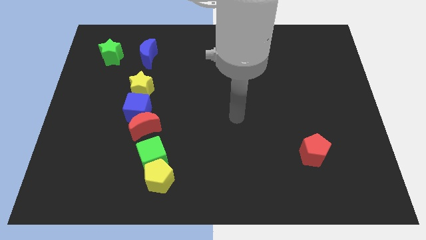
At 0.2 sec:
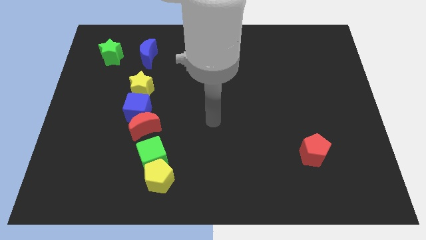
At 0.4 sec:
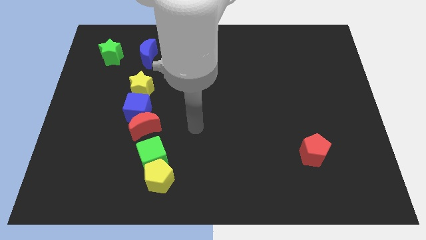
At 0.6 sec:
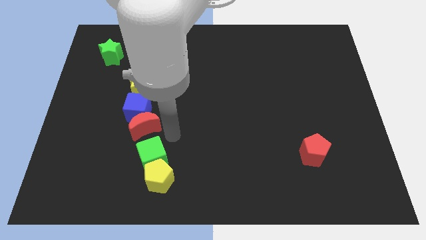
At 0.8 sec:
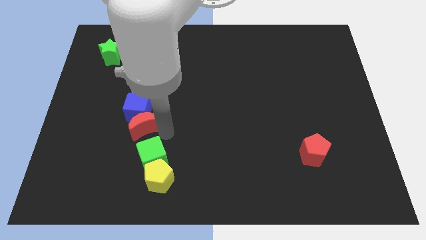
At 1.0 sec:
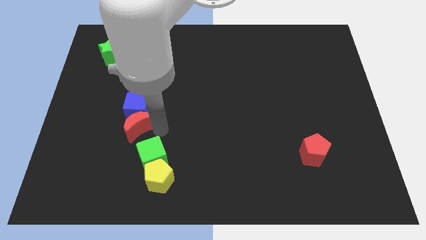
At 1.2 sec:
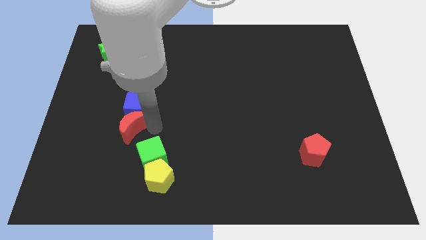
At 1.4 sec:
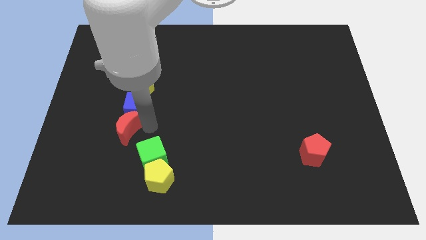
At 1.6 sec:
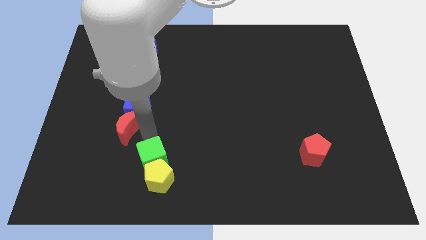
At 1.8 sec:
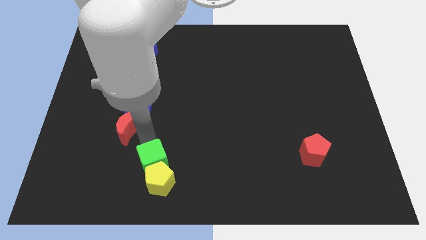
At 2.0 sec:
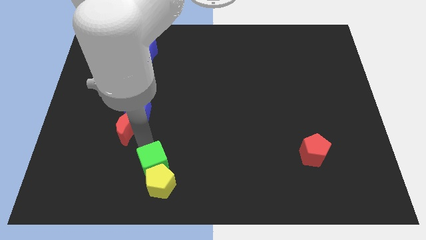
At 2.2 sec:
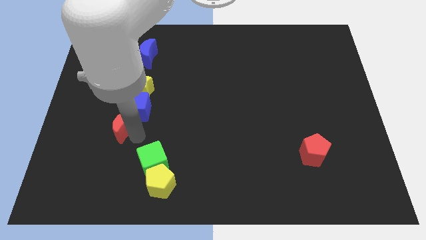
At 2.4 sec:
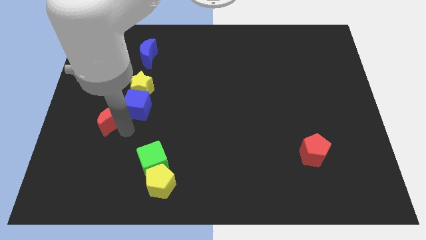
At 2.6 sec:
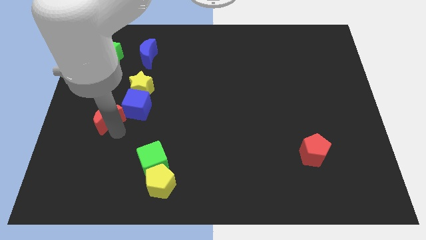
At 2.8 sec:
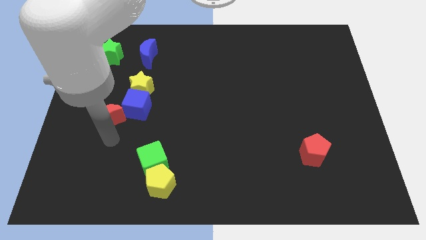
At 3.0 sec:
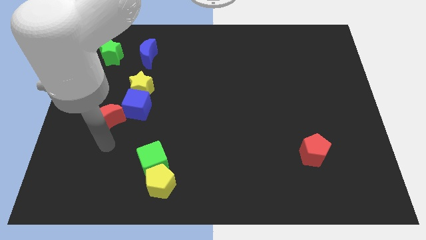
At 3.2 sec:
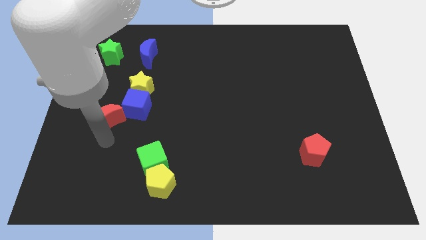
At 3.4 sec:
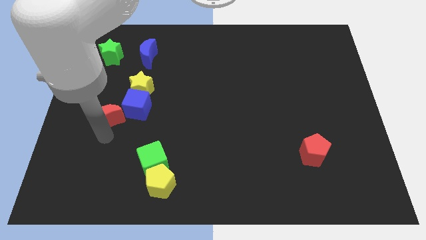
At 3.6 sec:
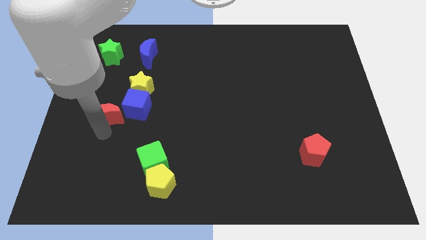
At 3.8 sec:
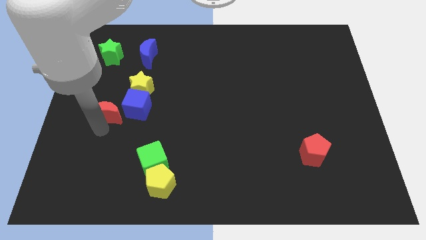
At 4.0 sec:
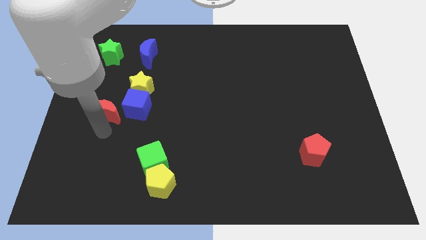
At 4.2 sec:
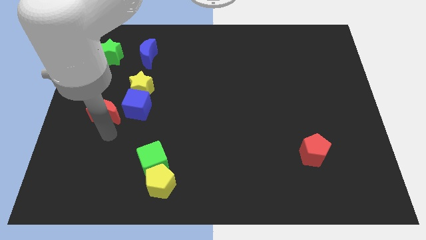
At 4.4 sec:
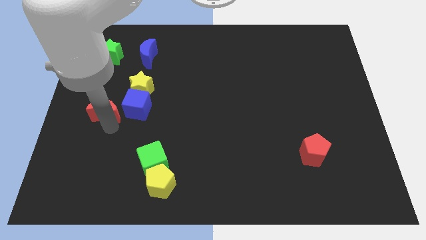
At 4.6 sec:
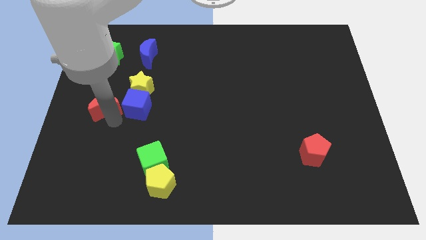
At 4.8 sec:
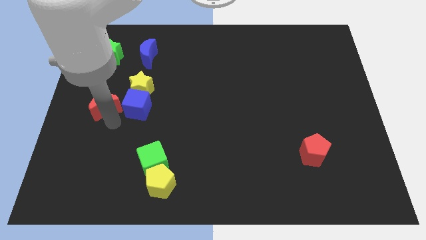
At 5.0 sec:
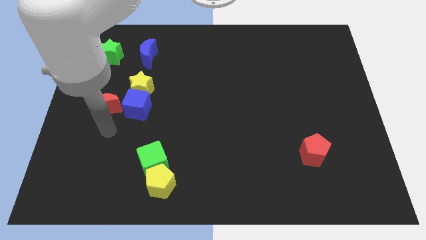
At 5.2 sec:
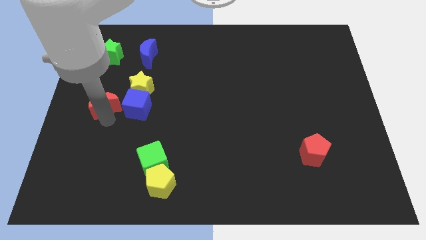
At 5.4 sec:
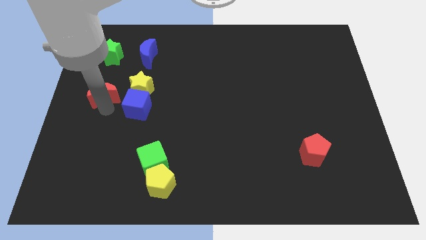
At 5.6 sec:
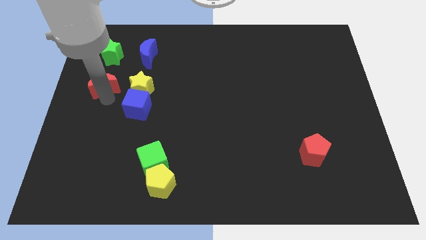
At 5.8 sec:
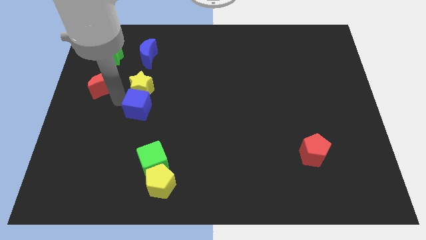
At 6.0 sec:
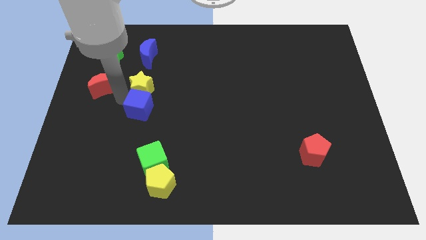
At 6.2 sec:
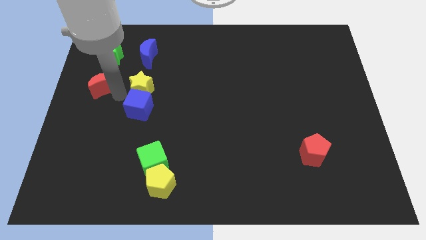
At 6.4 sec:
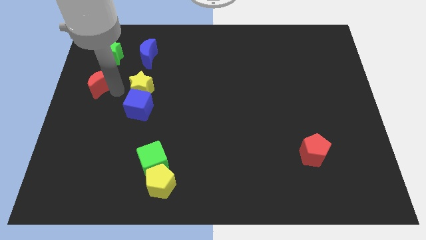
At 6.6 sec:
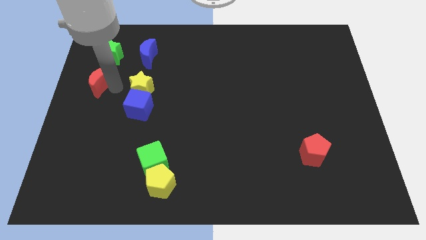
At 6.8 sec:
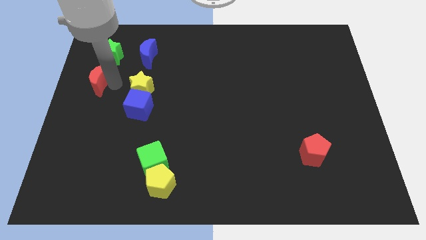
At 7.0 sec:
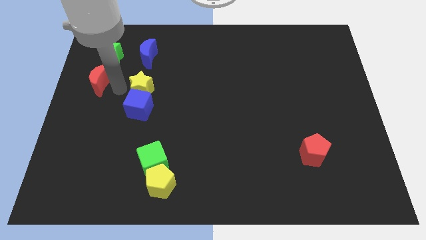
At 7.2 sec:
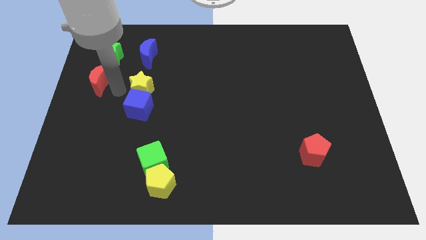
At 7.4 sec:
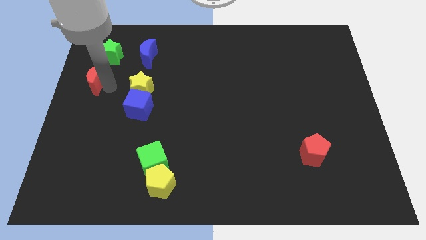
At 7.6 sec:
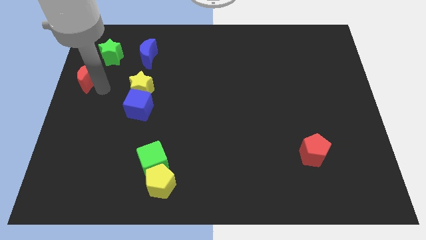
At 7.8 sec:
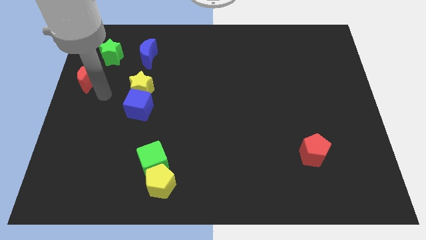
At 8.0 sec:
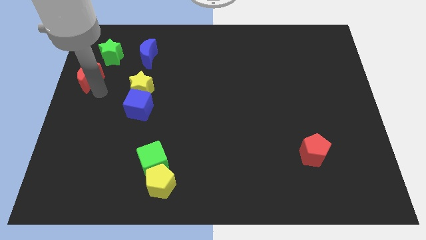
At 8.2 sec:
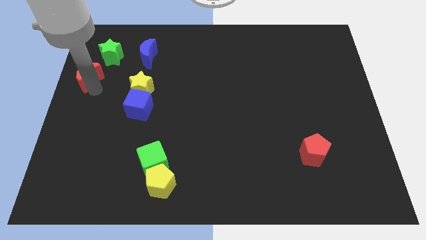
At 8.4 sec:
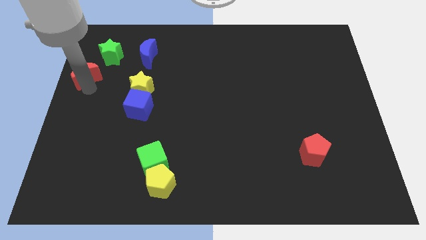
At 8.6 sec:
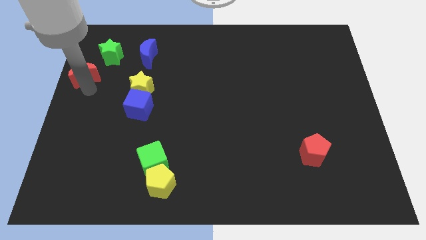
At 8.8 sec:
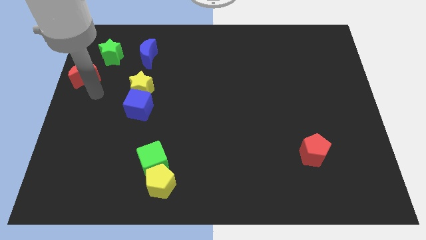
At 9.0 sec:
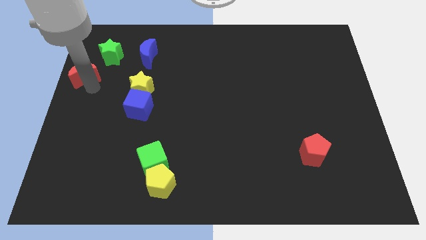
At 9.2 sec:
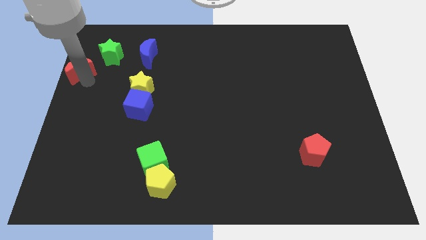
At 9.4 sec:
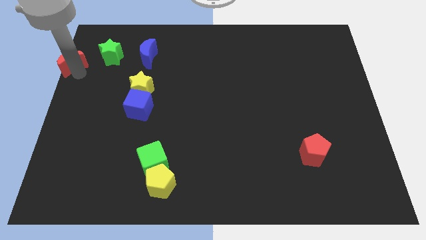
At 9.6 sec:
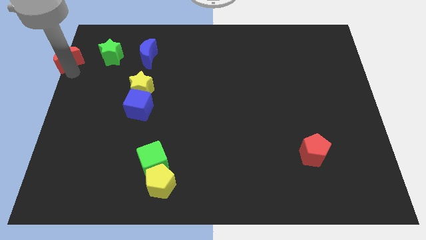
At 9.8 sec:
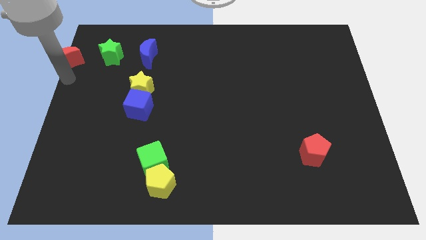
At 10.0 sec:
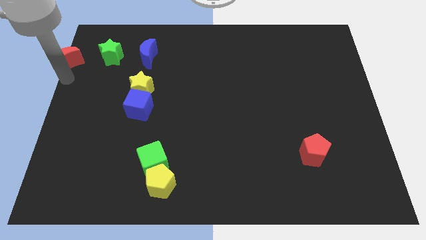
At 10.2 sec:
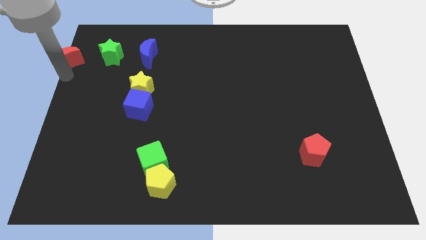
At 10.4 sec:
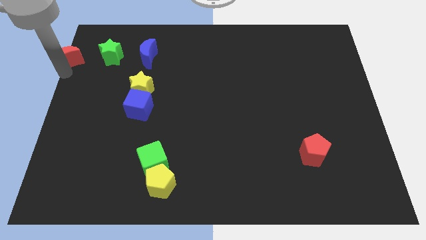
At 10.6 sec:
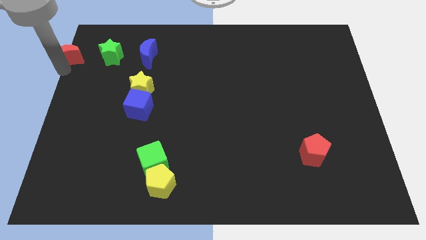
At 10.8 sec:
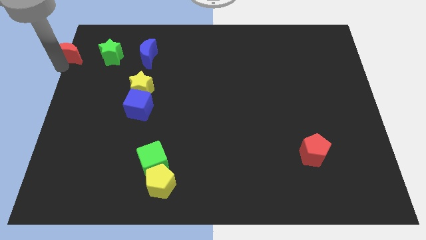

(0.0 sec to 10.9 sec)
move the red moon to the top left corner

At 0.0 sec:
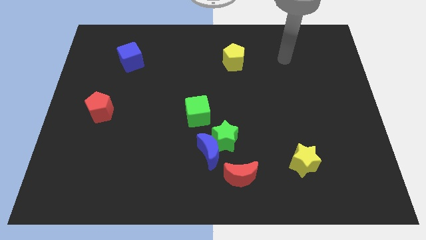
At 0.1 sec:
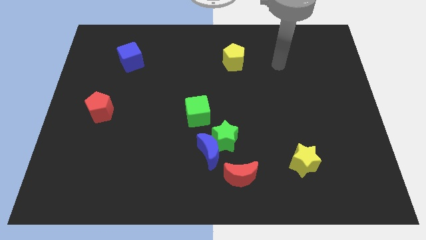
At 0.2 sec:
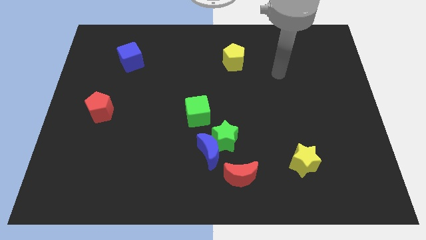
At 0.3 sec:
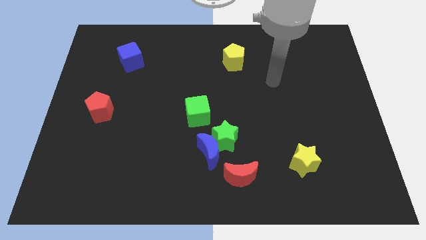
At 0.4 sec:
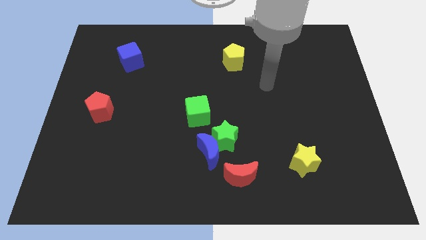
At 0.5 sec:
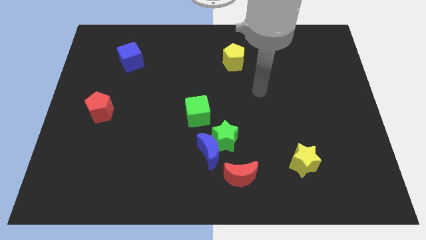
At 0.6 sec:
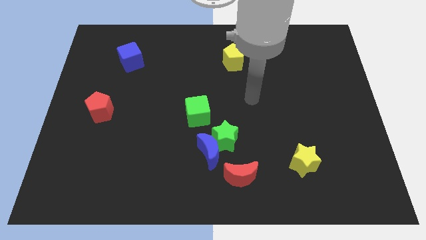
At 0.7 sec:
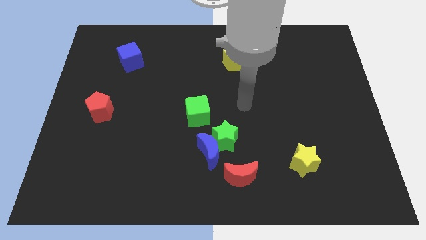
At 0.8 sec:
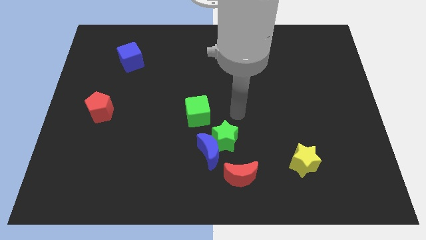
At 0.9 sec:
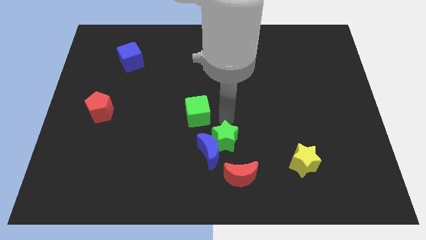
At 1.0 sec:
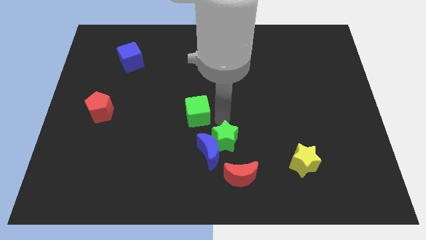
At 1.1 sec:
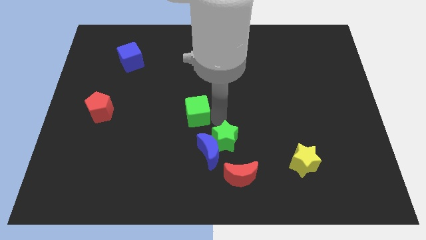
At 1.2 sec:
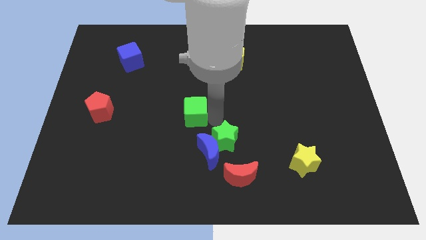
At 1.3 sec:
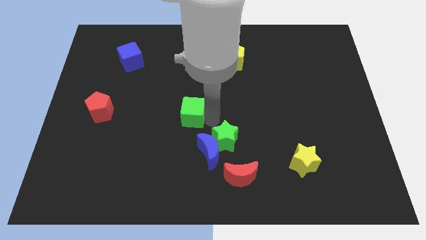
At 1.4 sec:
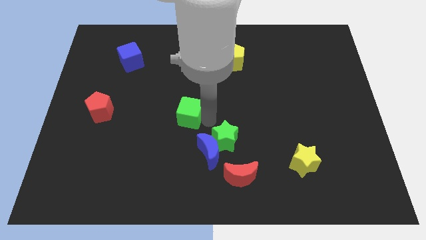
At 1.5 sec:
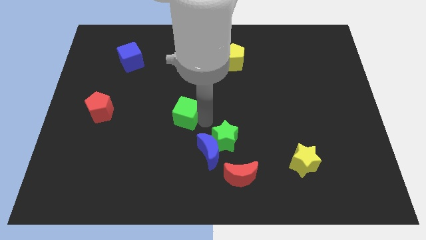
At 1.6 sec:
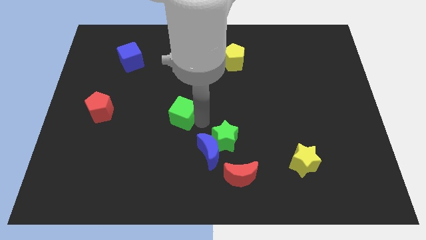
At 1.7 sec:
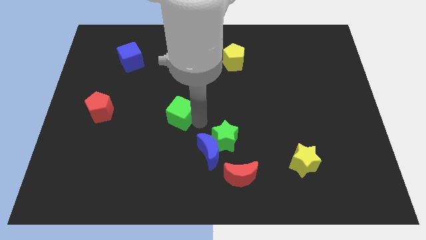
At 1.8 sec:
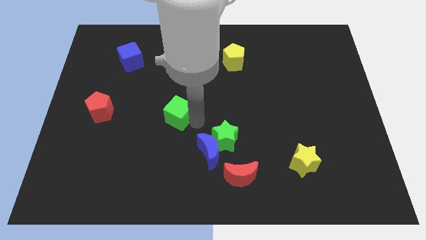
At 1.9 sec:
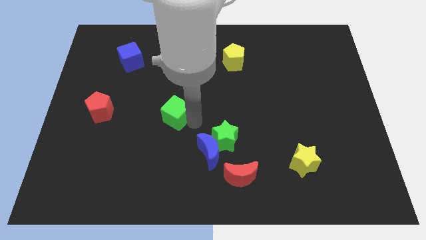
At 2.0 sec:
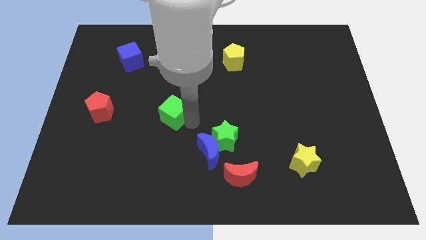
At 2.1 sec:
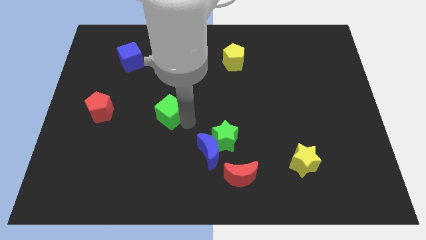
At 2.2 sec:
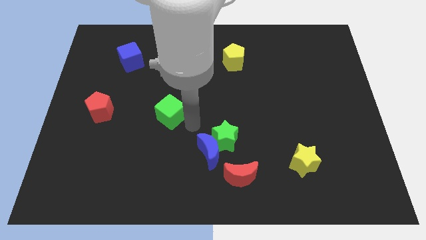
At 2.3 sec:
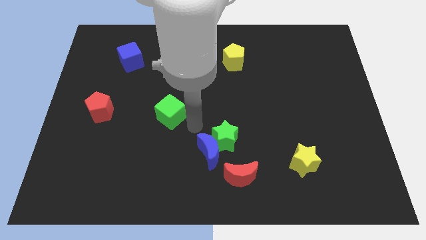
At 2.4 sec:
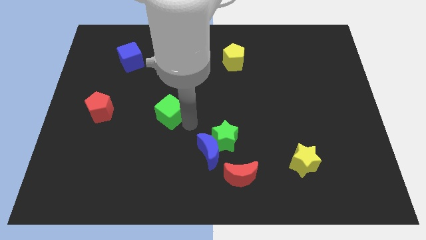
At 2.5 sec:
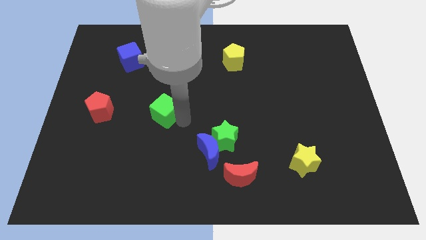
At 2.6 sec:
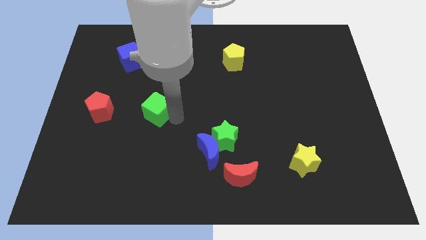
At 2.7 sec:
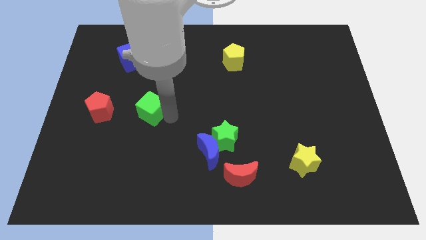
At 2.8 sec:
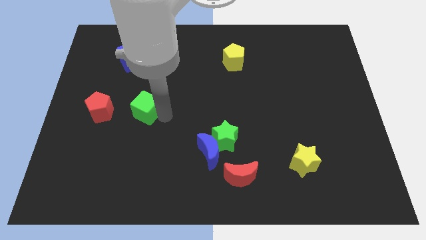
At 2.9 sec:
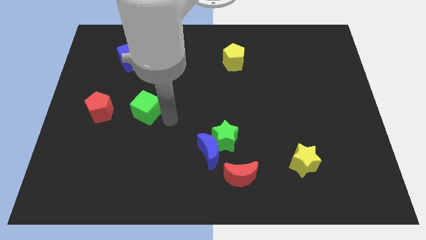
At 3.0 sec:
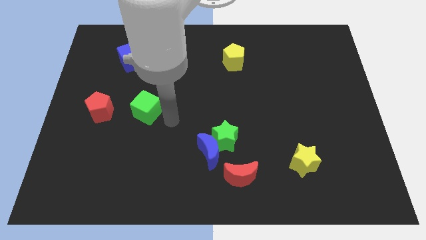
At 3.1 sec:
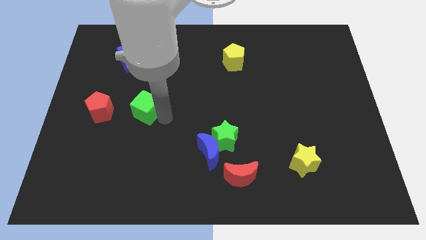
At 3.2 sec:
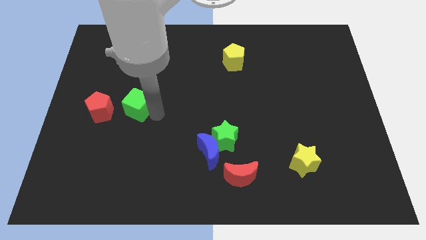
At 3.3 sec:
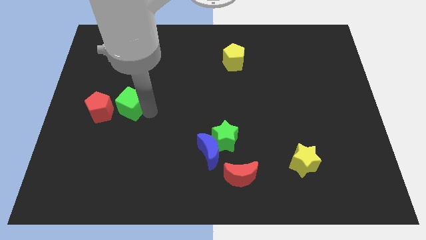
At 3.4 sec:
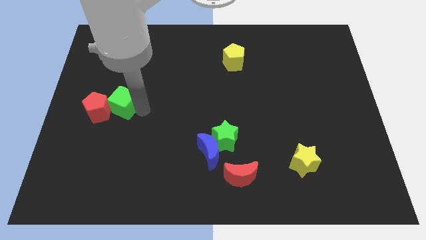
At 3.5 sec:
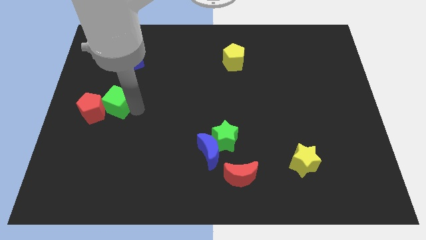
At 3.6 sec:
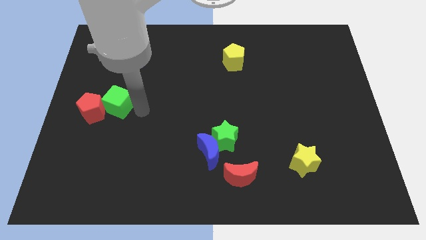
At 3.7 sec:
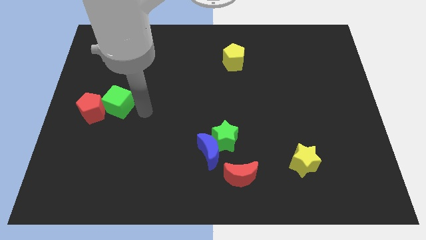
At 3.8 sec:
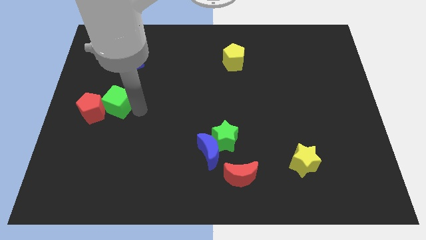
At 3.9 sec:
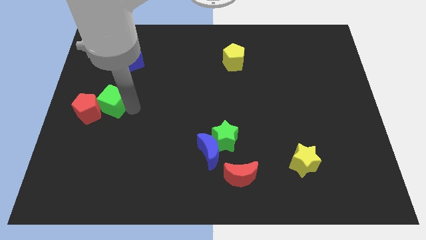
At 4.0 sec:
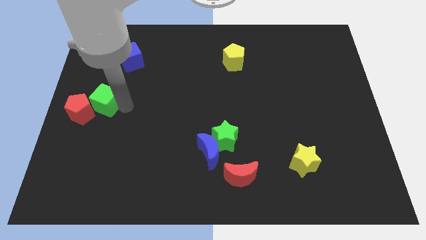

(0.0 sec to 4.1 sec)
slide the green cube to the left side of the board
